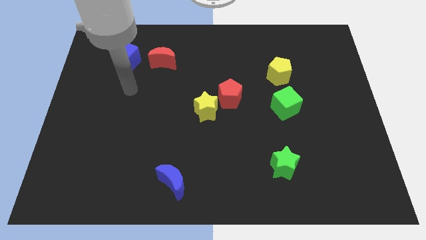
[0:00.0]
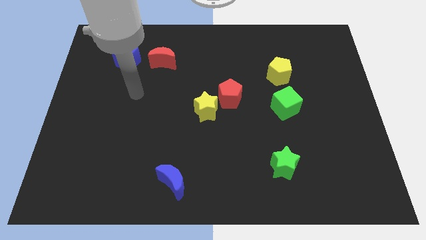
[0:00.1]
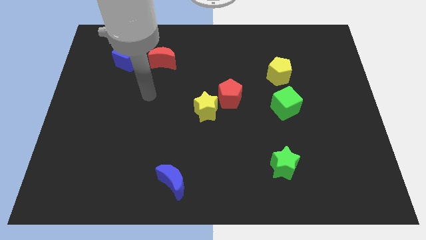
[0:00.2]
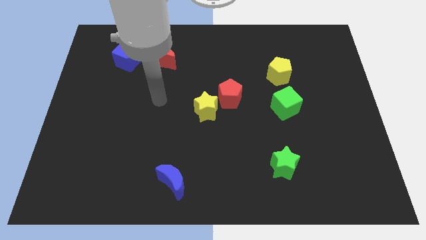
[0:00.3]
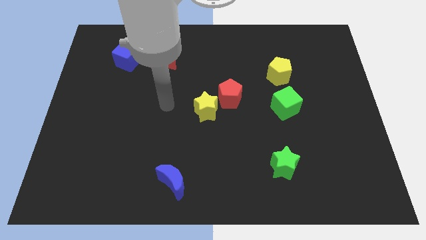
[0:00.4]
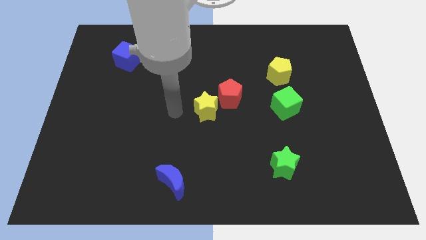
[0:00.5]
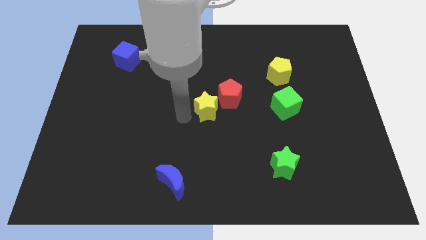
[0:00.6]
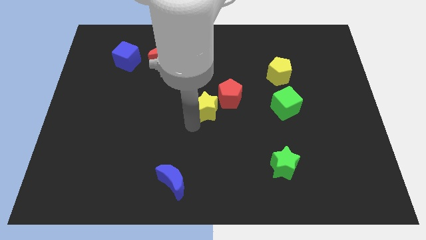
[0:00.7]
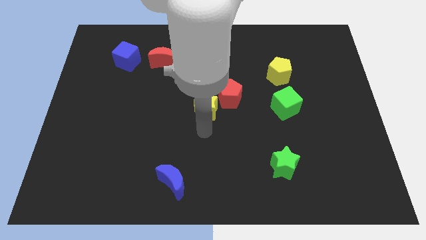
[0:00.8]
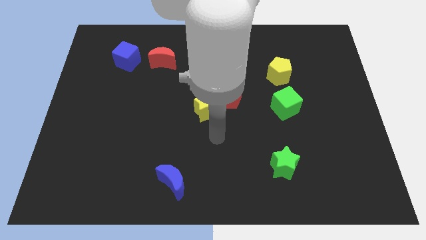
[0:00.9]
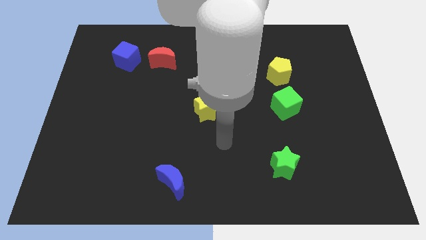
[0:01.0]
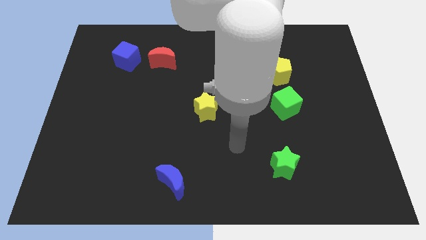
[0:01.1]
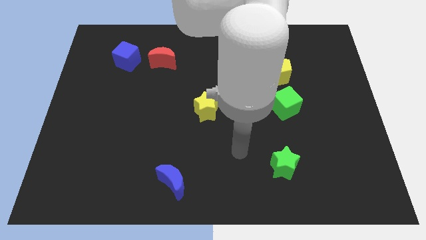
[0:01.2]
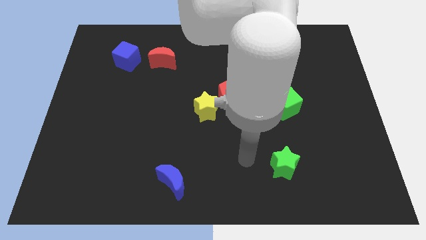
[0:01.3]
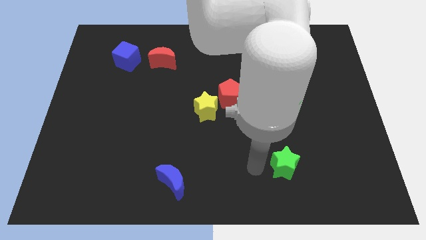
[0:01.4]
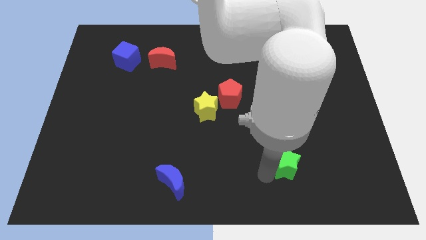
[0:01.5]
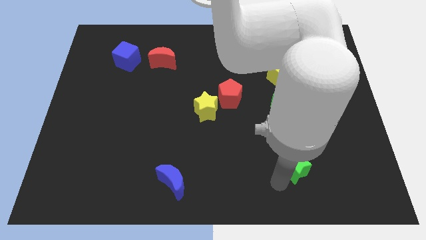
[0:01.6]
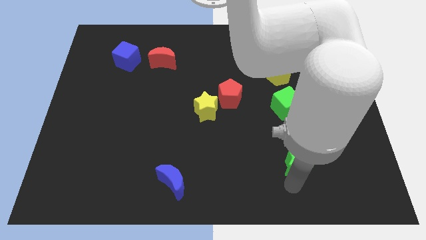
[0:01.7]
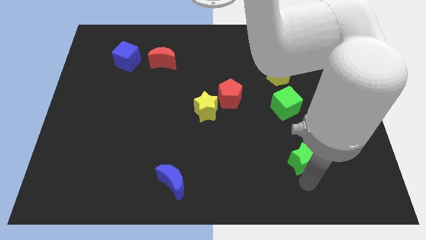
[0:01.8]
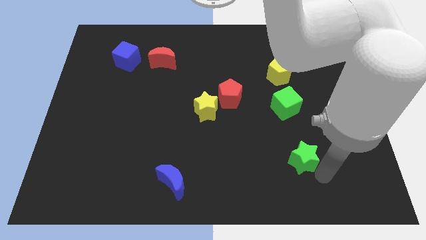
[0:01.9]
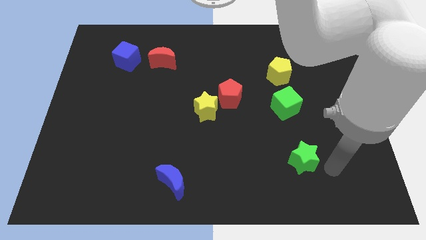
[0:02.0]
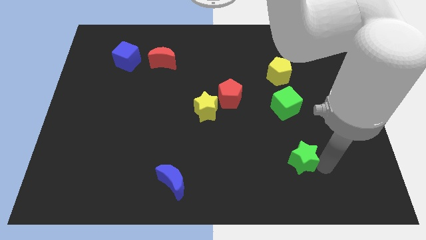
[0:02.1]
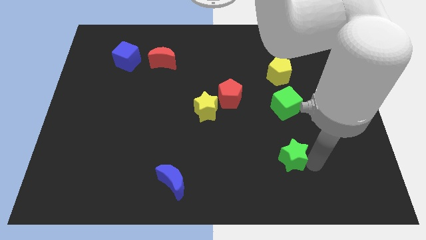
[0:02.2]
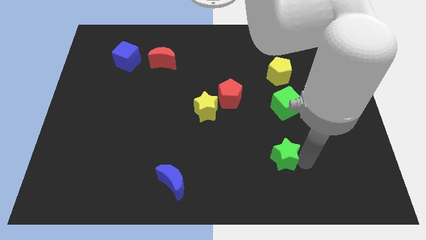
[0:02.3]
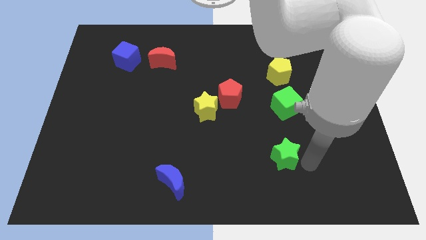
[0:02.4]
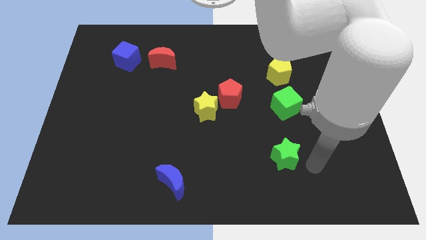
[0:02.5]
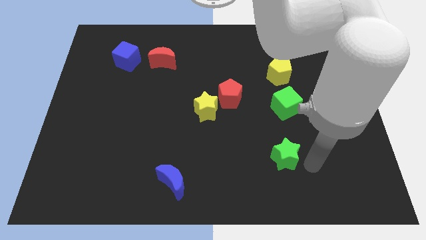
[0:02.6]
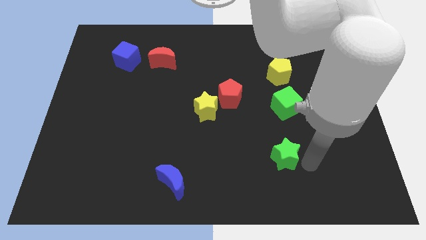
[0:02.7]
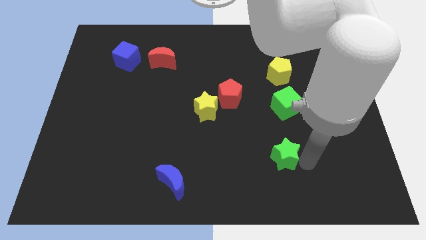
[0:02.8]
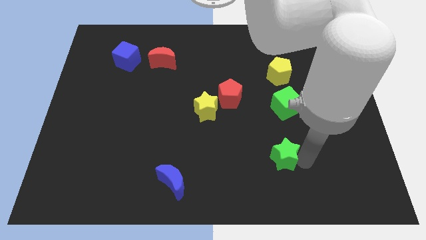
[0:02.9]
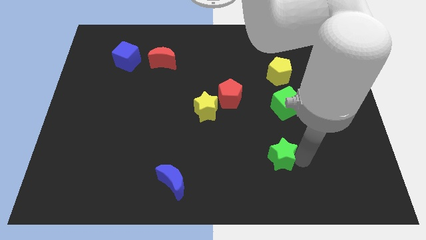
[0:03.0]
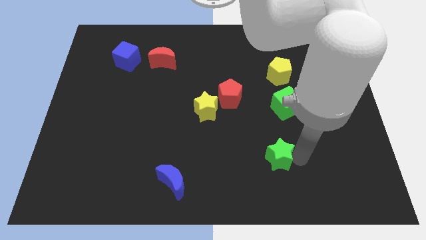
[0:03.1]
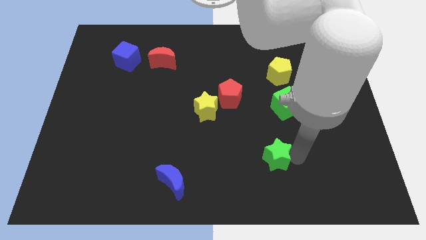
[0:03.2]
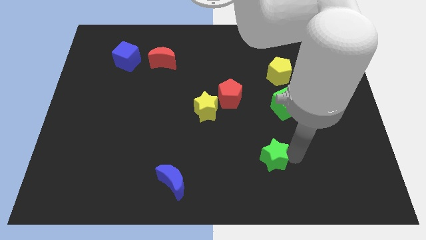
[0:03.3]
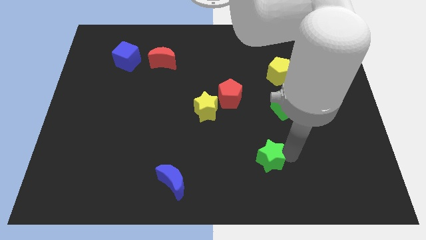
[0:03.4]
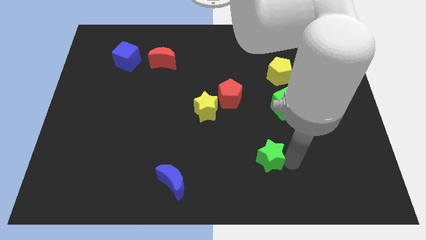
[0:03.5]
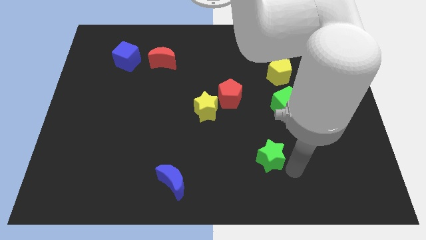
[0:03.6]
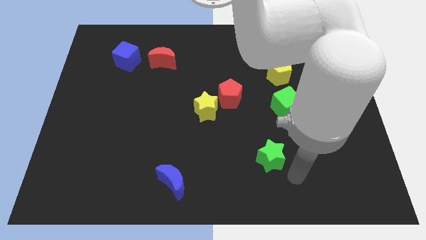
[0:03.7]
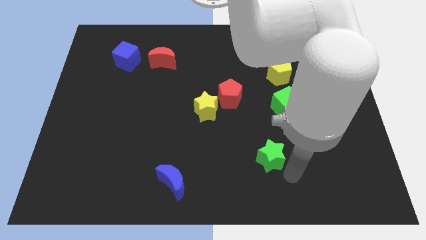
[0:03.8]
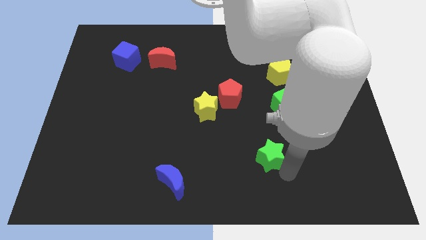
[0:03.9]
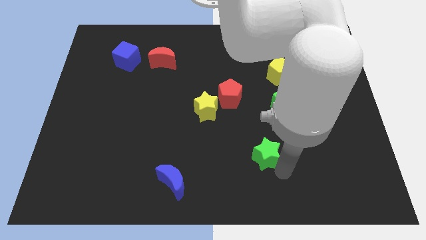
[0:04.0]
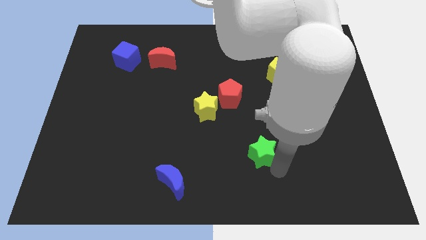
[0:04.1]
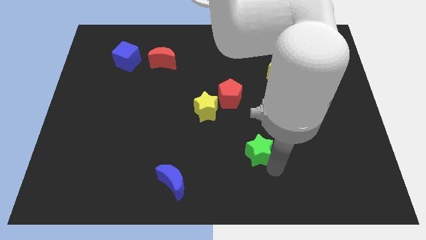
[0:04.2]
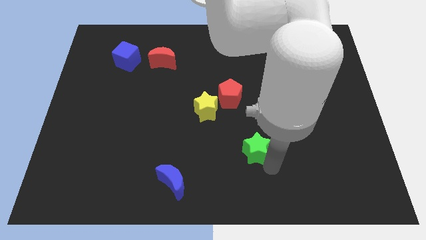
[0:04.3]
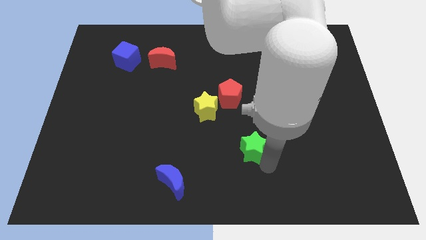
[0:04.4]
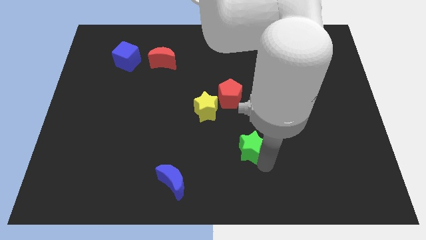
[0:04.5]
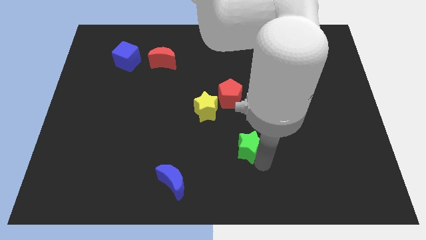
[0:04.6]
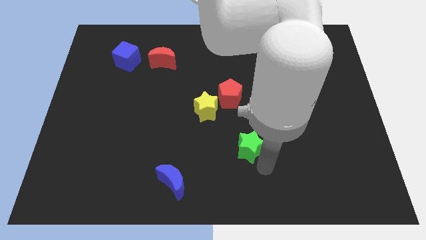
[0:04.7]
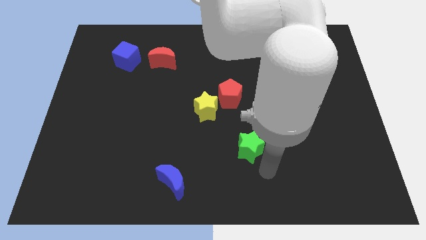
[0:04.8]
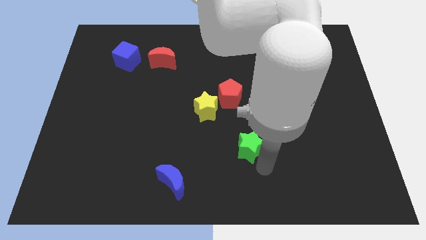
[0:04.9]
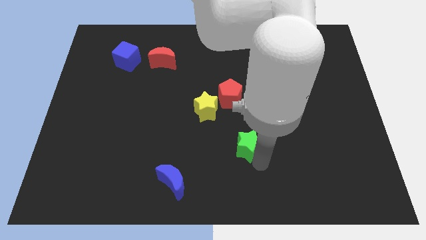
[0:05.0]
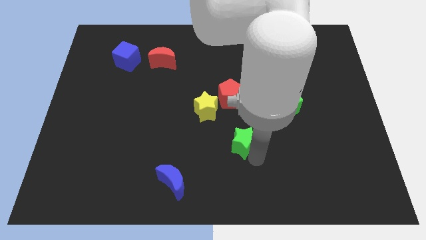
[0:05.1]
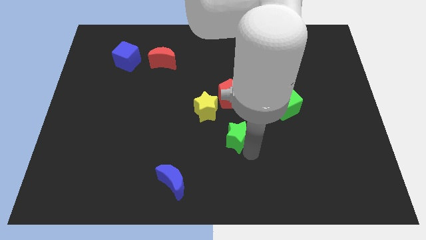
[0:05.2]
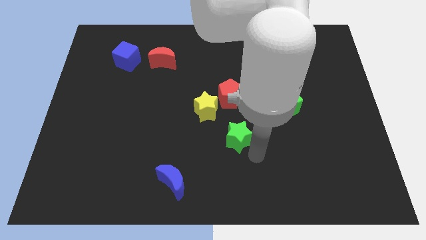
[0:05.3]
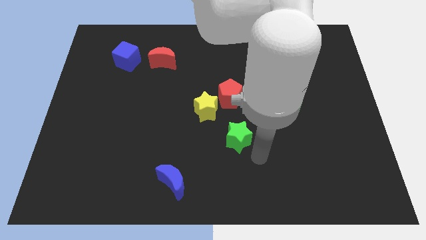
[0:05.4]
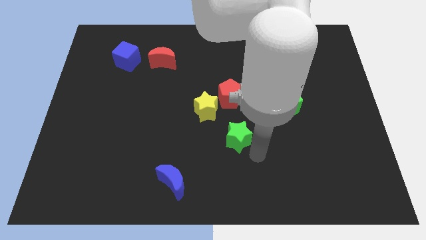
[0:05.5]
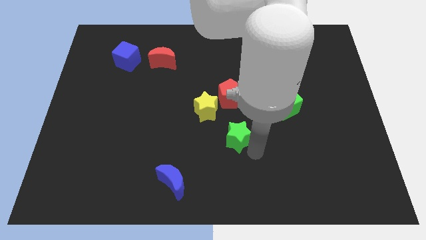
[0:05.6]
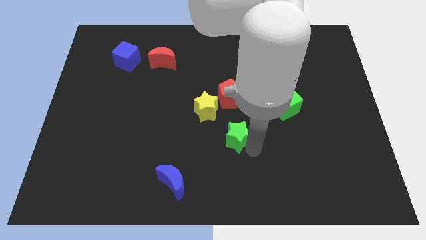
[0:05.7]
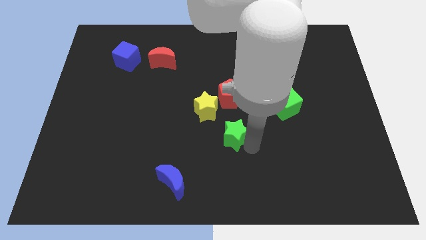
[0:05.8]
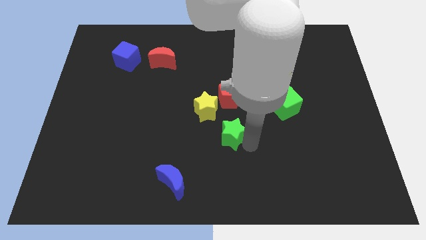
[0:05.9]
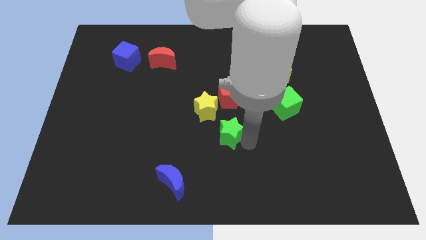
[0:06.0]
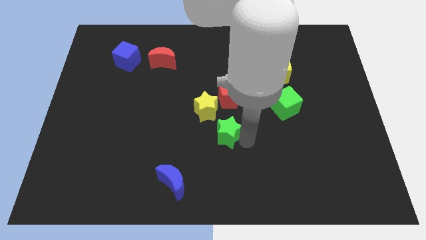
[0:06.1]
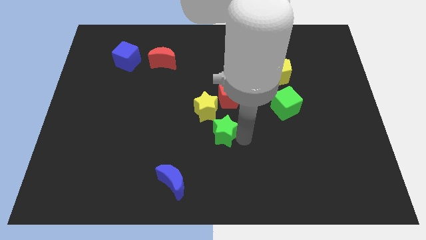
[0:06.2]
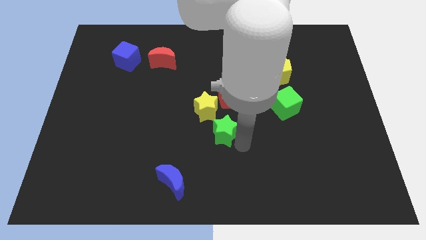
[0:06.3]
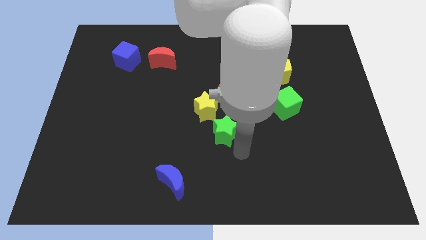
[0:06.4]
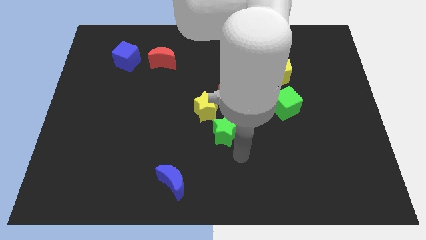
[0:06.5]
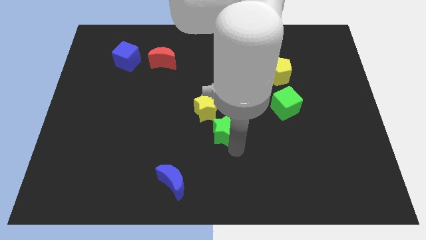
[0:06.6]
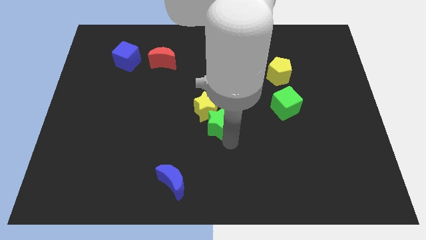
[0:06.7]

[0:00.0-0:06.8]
put the green star next to the yellow star
